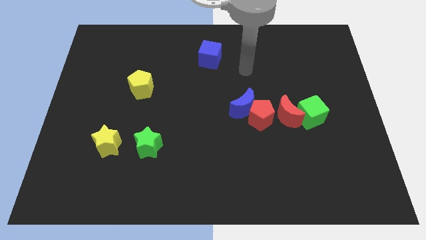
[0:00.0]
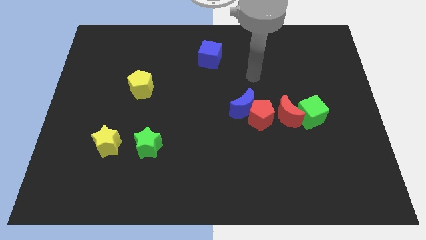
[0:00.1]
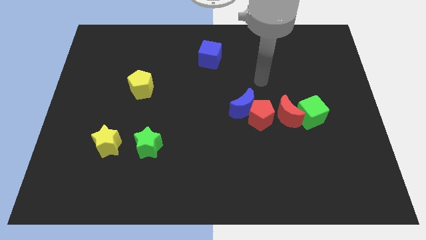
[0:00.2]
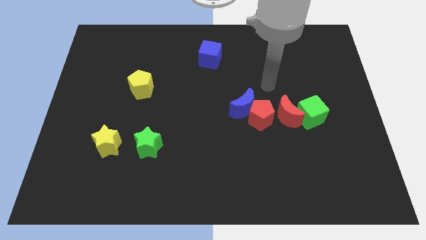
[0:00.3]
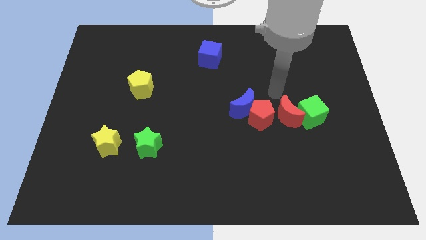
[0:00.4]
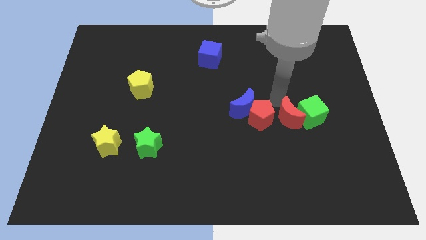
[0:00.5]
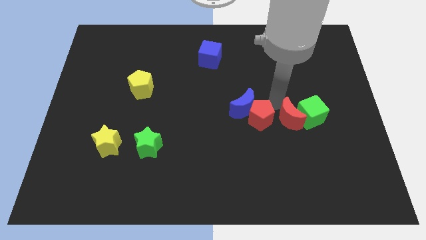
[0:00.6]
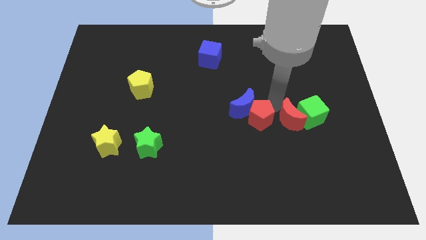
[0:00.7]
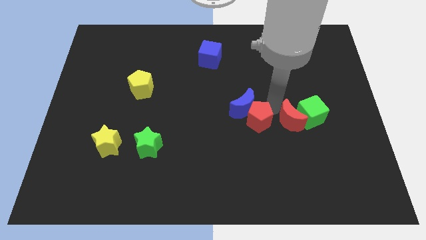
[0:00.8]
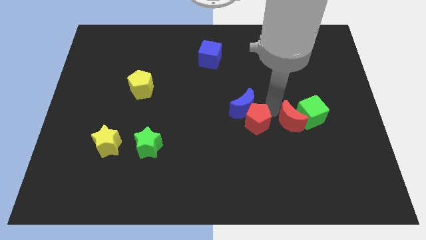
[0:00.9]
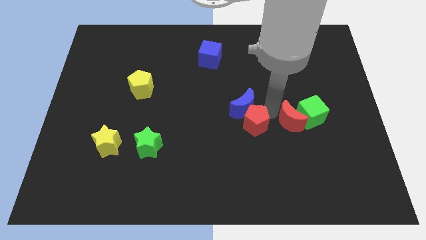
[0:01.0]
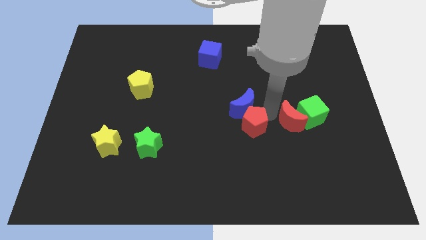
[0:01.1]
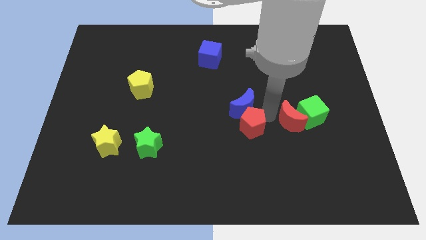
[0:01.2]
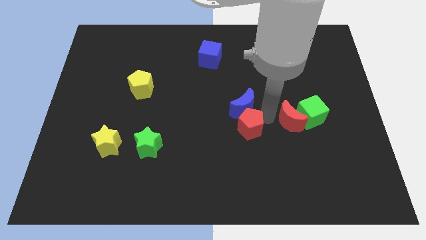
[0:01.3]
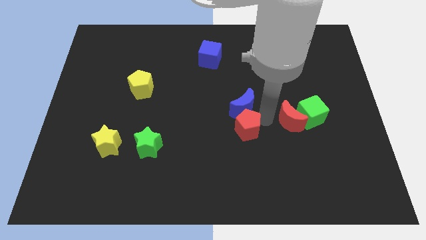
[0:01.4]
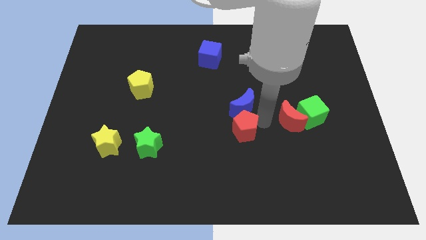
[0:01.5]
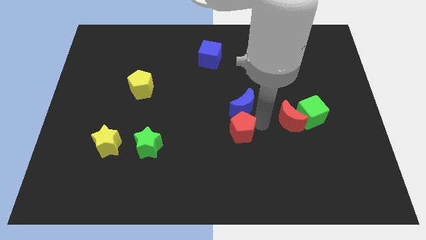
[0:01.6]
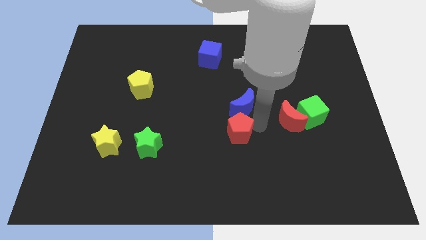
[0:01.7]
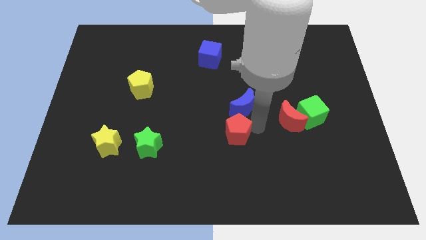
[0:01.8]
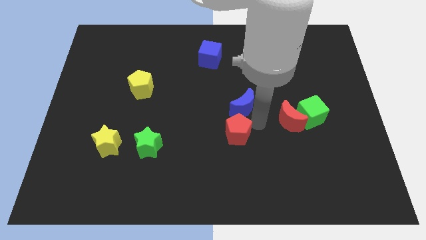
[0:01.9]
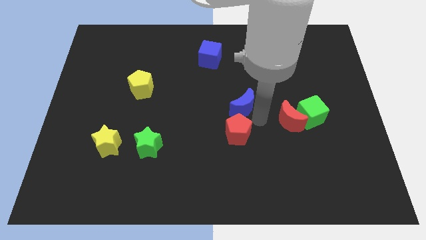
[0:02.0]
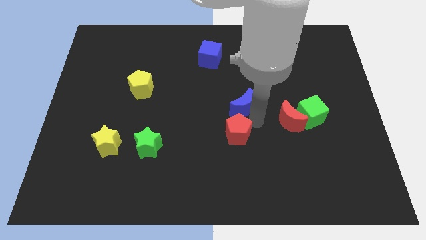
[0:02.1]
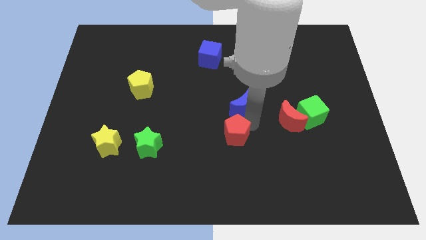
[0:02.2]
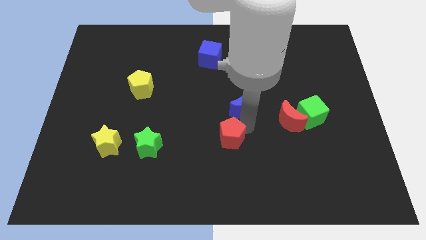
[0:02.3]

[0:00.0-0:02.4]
move the red pentagon away from the blue moon and red moon

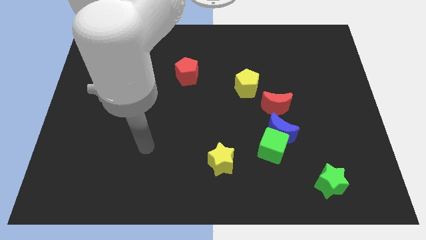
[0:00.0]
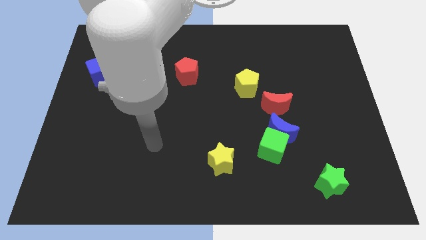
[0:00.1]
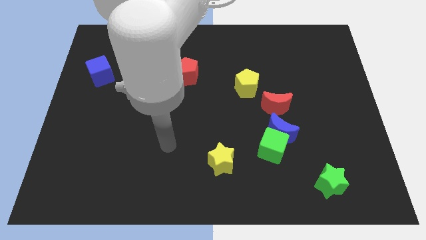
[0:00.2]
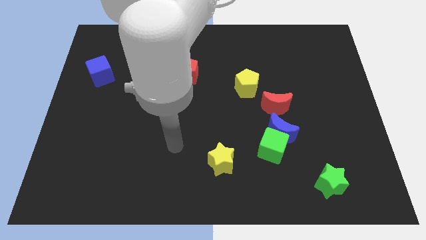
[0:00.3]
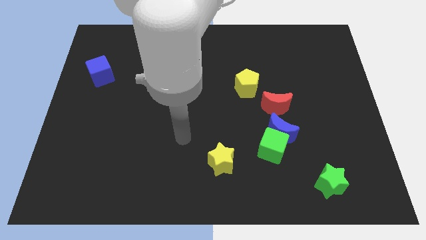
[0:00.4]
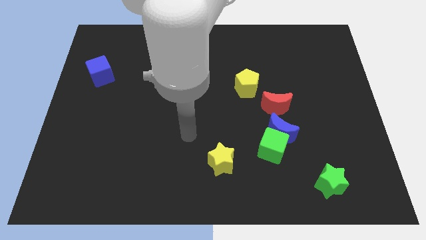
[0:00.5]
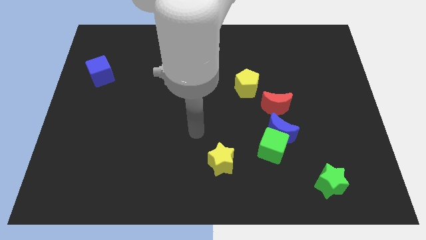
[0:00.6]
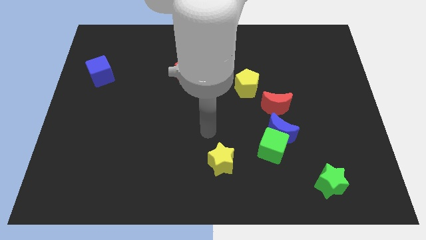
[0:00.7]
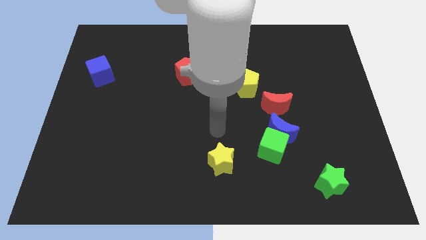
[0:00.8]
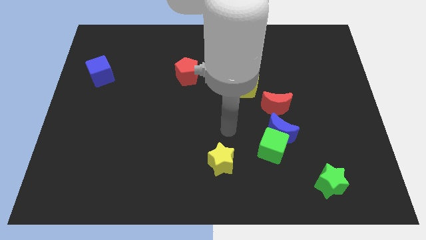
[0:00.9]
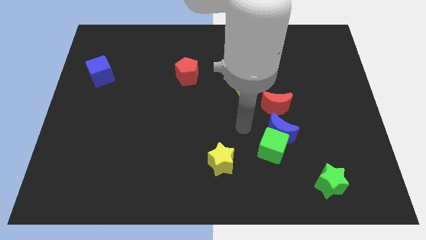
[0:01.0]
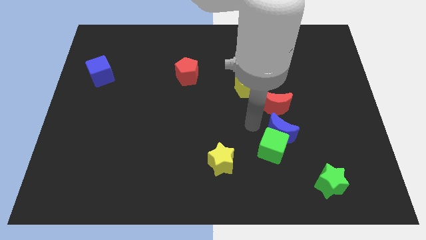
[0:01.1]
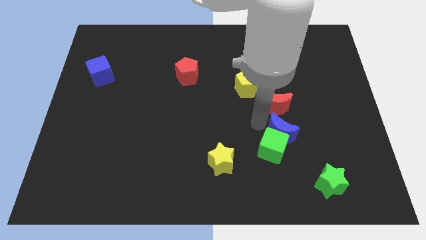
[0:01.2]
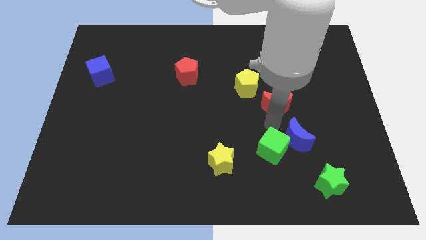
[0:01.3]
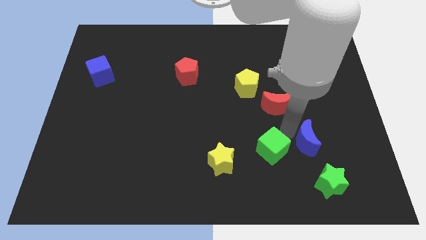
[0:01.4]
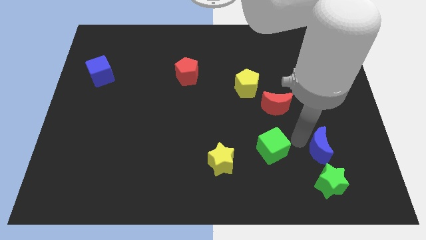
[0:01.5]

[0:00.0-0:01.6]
separate the green cube from the blue moon

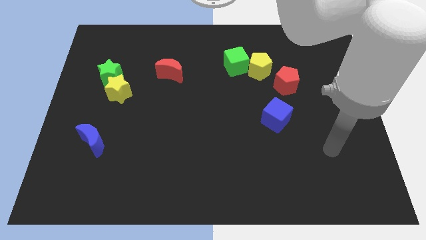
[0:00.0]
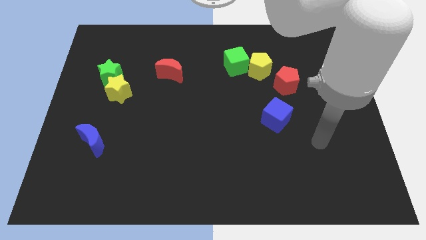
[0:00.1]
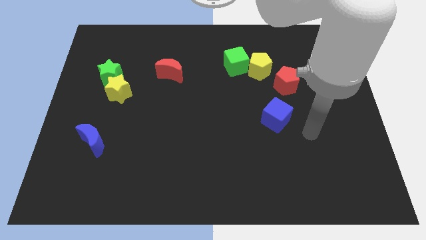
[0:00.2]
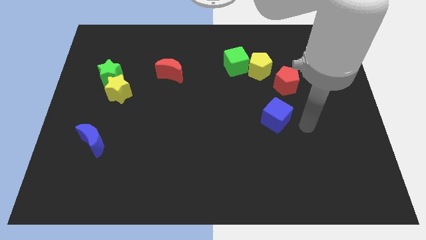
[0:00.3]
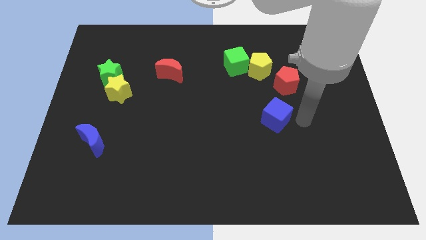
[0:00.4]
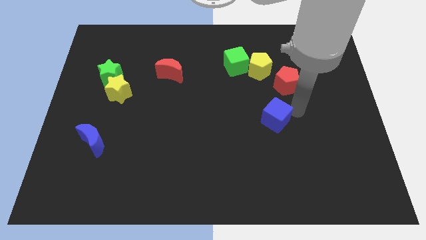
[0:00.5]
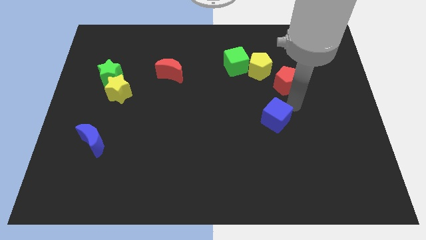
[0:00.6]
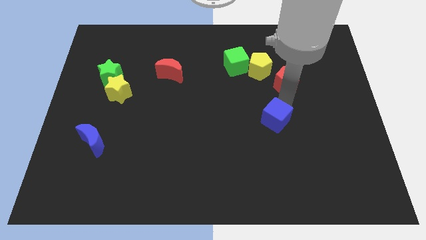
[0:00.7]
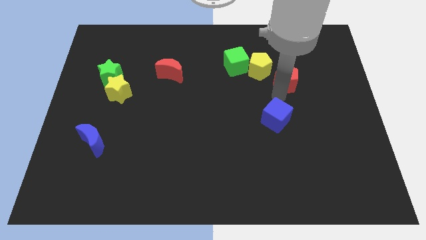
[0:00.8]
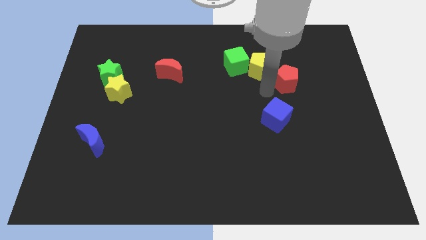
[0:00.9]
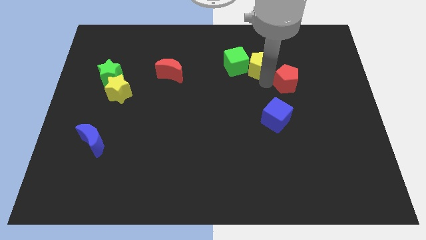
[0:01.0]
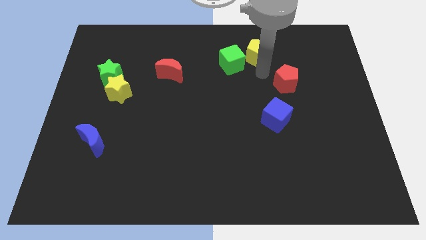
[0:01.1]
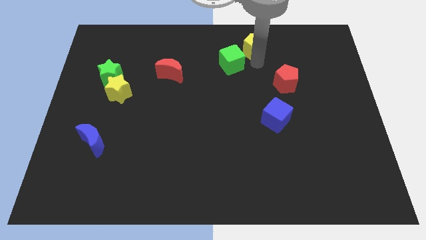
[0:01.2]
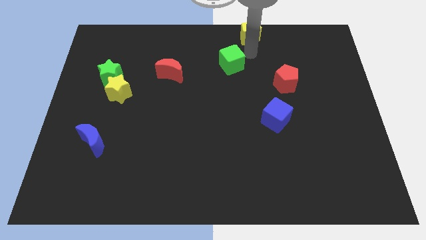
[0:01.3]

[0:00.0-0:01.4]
pull the green cube apart from the yellow pentagon

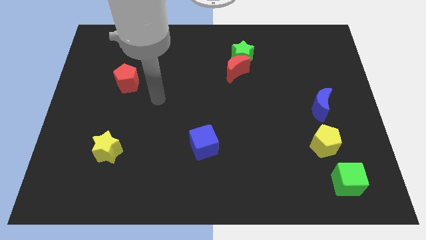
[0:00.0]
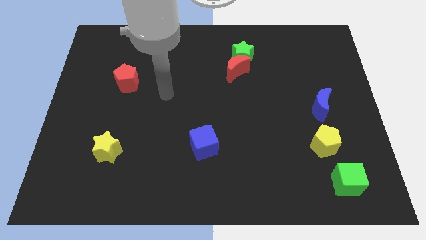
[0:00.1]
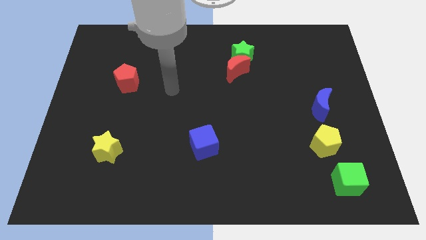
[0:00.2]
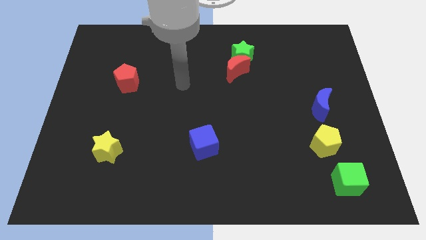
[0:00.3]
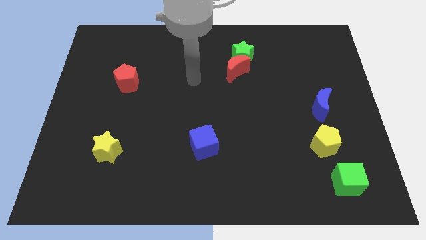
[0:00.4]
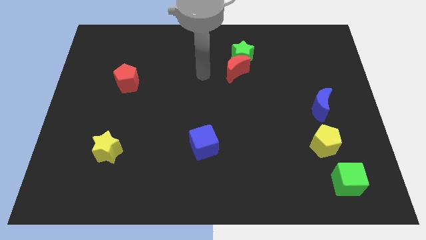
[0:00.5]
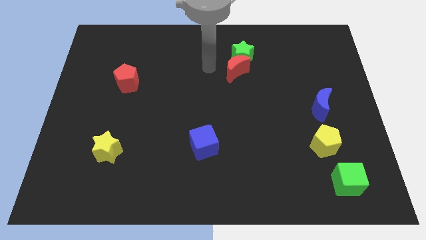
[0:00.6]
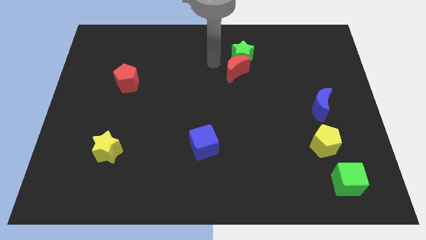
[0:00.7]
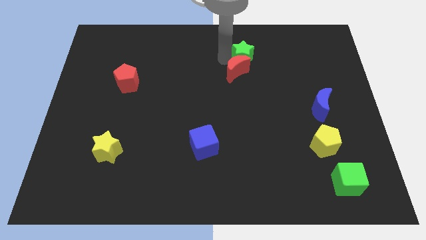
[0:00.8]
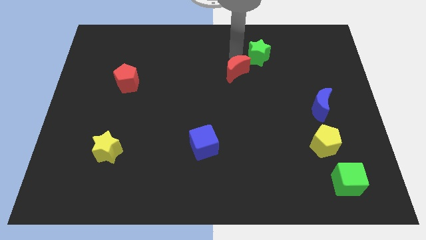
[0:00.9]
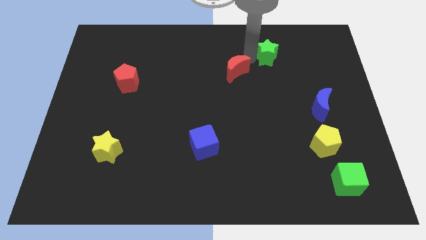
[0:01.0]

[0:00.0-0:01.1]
separate the red moon from the green star

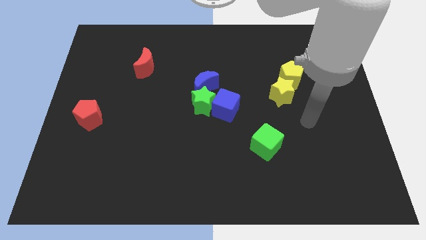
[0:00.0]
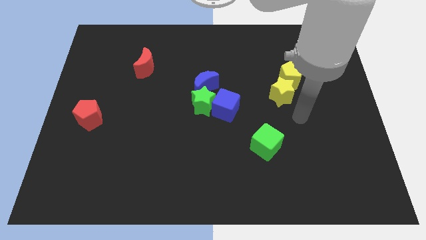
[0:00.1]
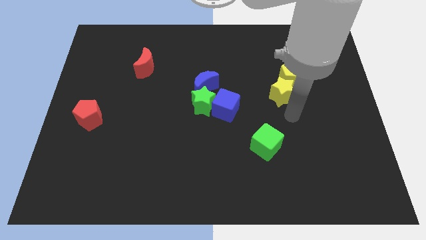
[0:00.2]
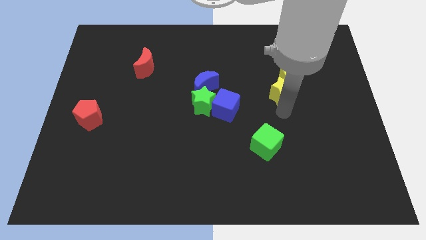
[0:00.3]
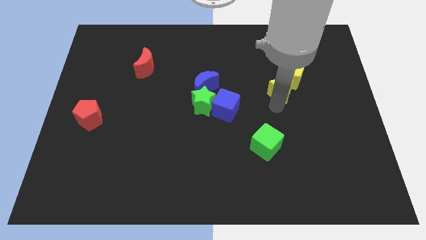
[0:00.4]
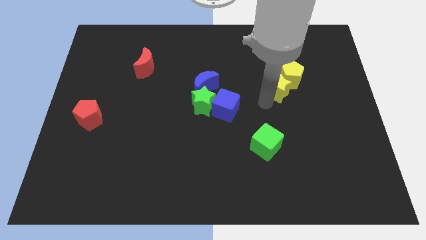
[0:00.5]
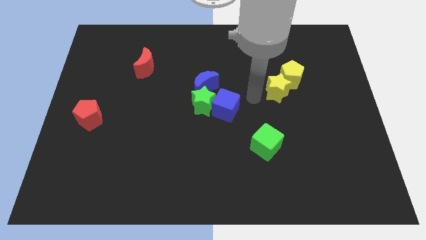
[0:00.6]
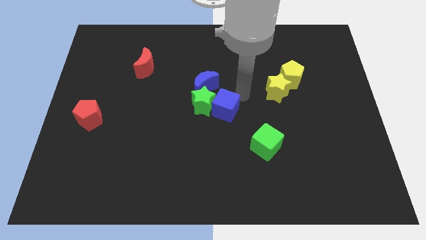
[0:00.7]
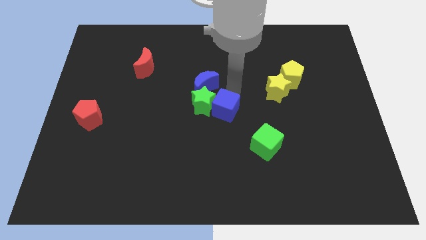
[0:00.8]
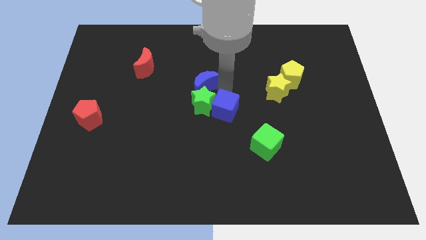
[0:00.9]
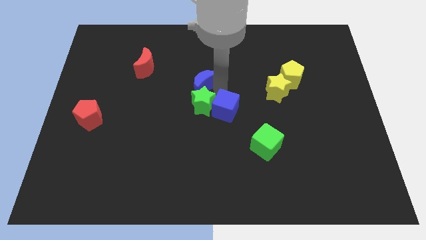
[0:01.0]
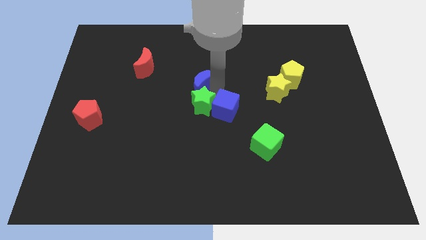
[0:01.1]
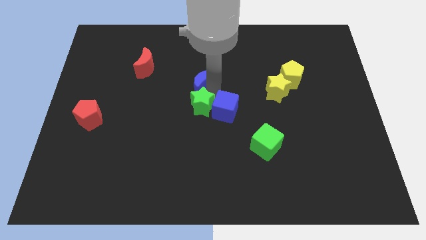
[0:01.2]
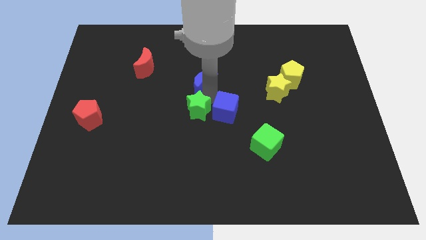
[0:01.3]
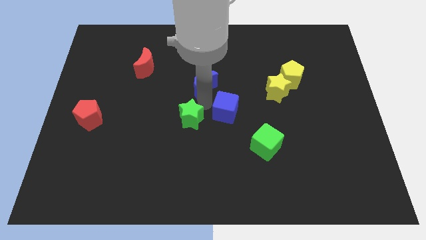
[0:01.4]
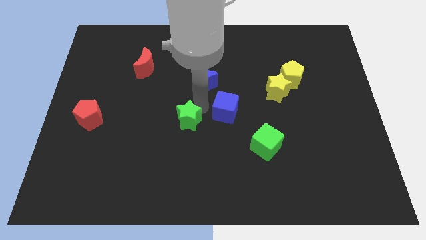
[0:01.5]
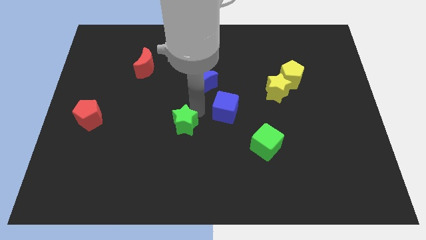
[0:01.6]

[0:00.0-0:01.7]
separate the green star from the blue cube and blue moon

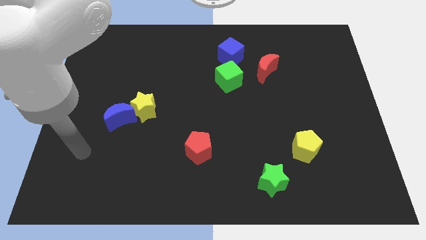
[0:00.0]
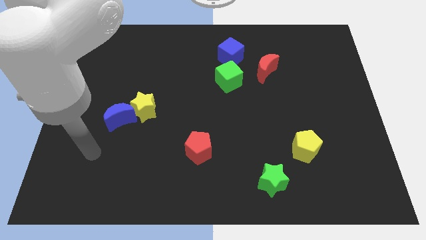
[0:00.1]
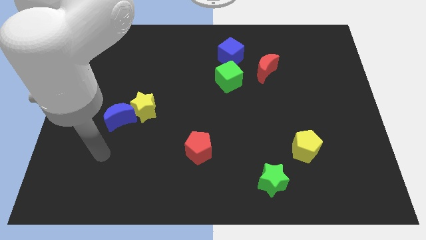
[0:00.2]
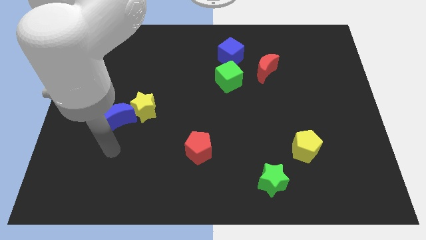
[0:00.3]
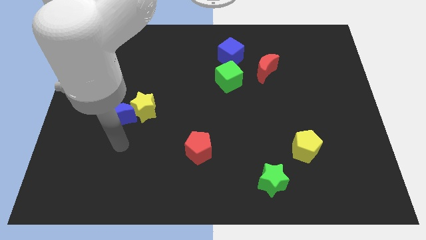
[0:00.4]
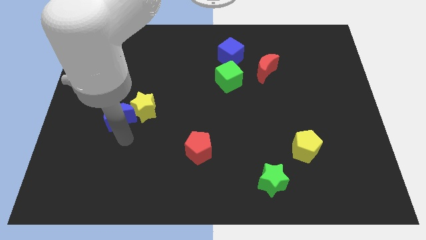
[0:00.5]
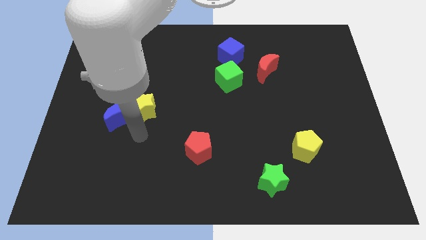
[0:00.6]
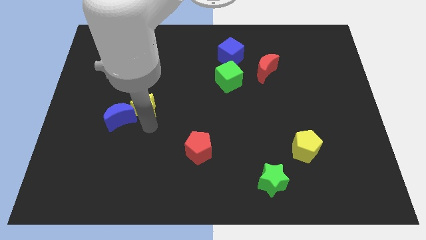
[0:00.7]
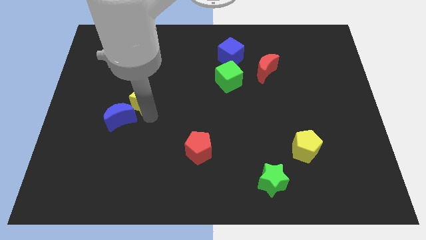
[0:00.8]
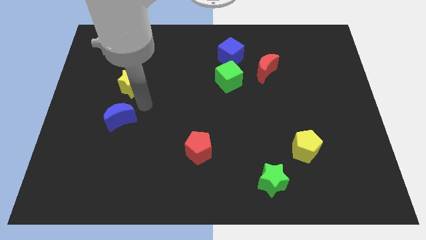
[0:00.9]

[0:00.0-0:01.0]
separate the blue moon from the yellow star
